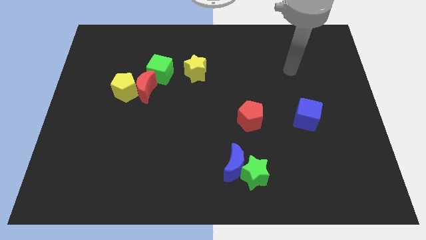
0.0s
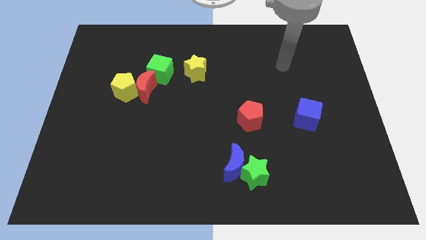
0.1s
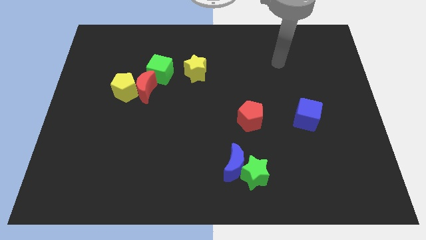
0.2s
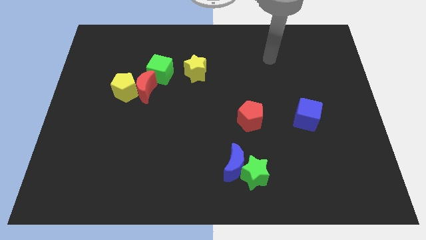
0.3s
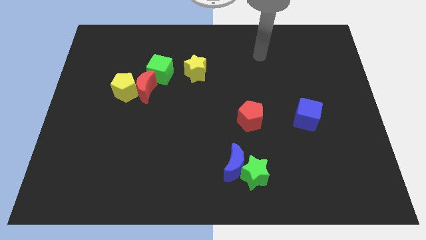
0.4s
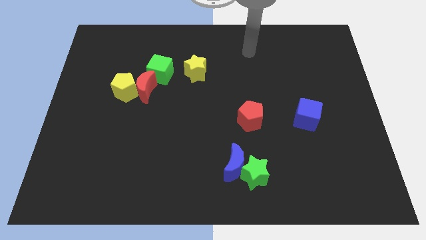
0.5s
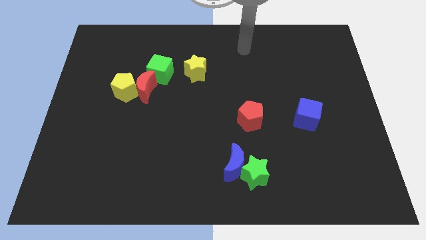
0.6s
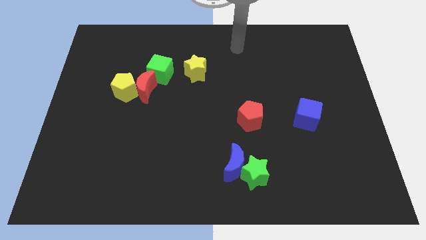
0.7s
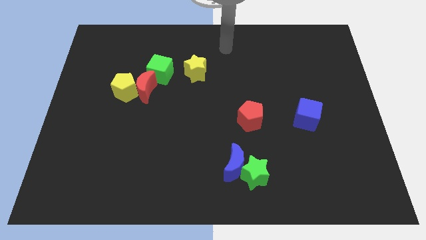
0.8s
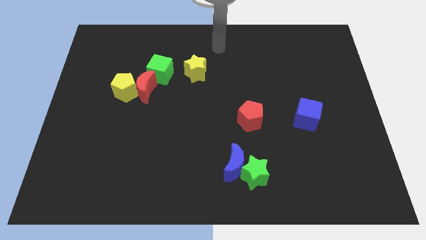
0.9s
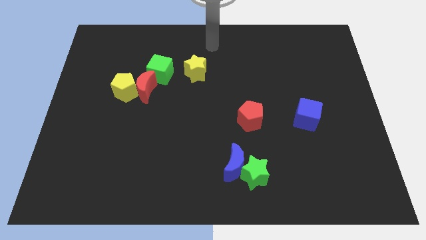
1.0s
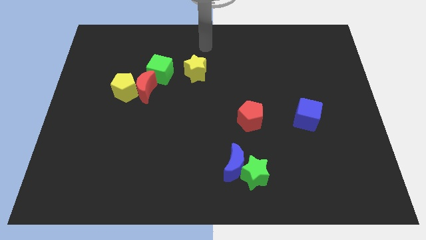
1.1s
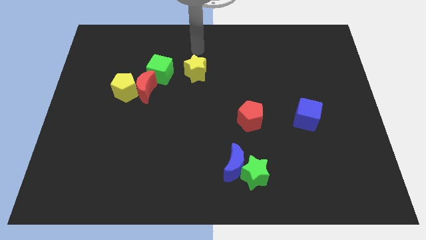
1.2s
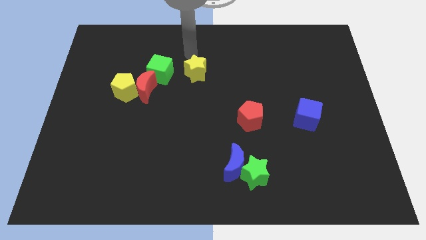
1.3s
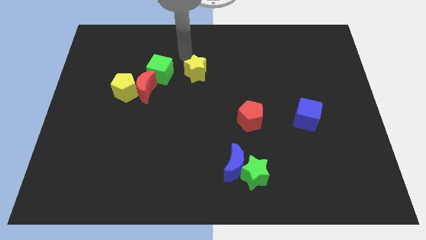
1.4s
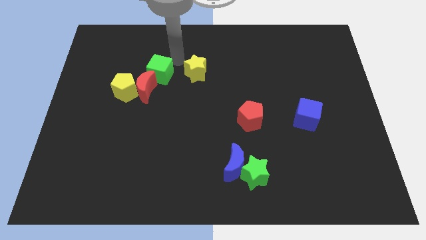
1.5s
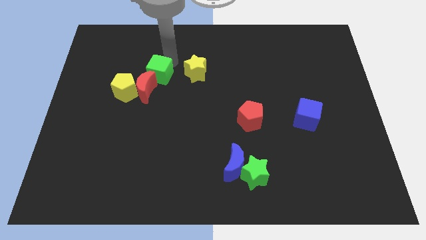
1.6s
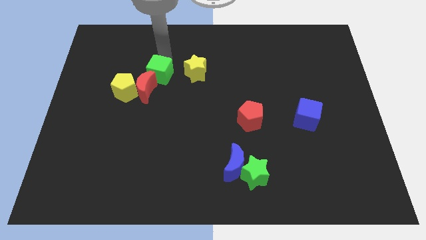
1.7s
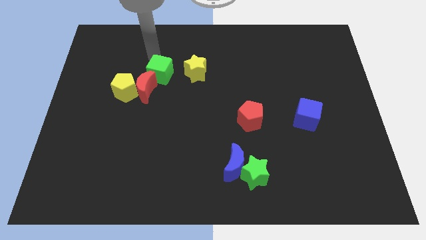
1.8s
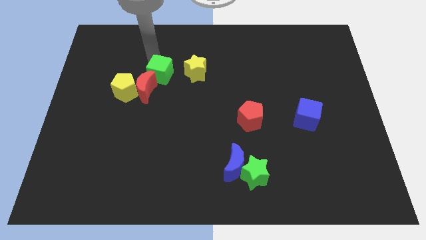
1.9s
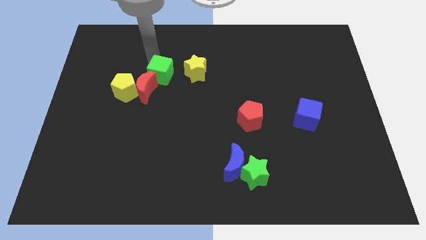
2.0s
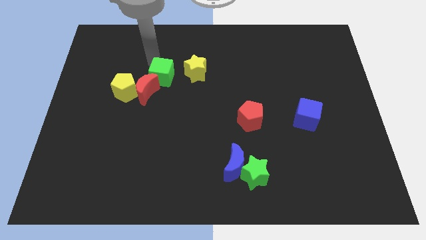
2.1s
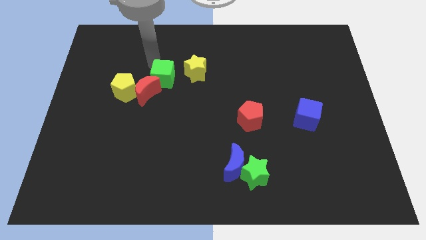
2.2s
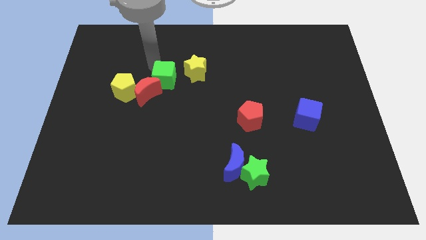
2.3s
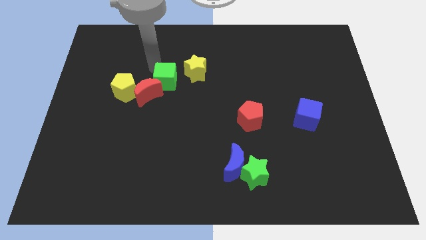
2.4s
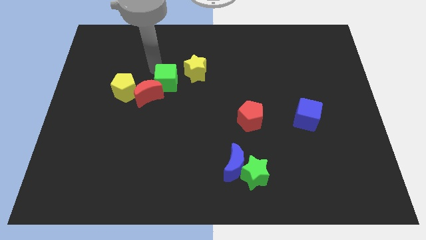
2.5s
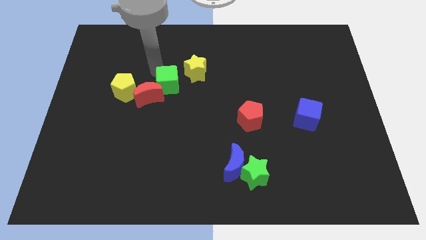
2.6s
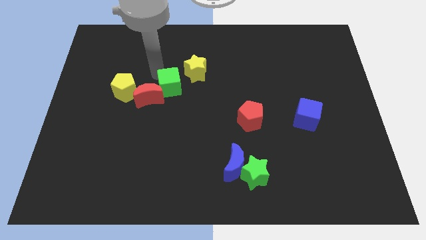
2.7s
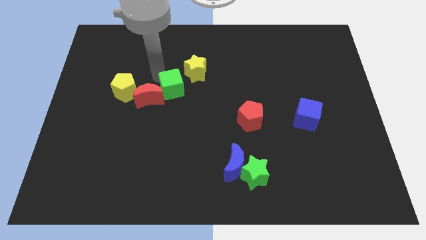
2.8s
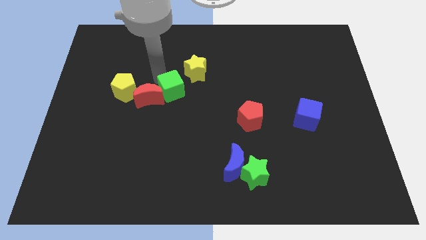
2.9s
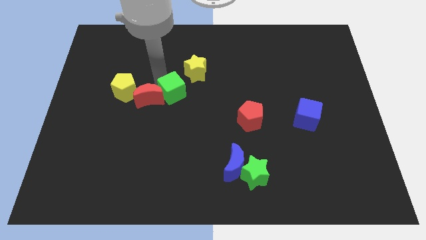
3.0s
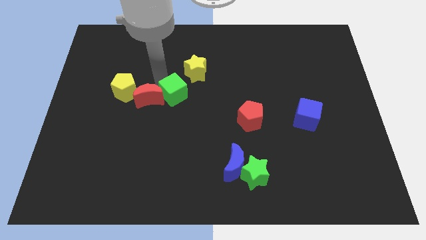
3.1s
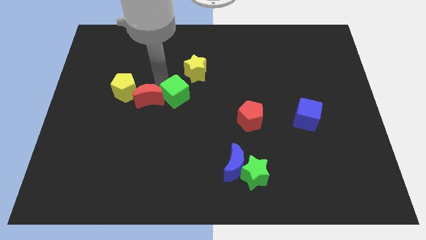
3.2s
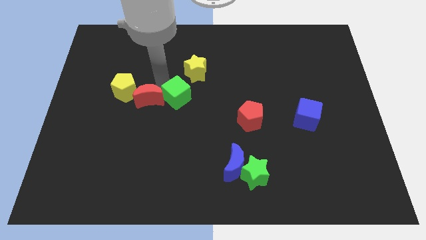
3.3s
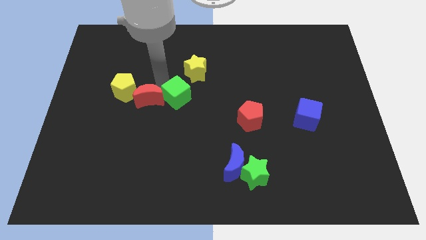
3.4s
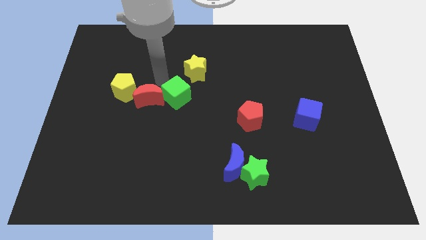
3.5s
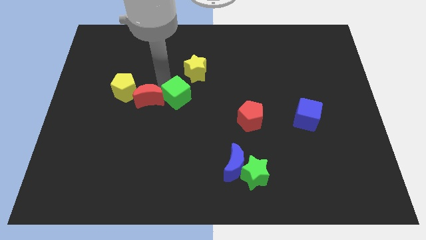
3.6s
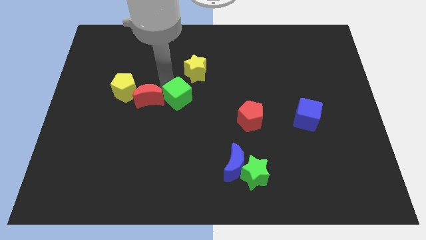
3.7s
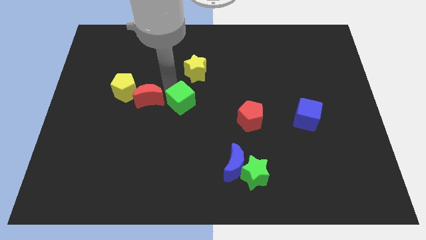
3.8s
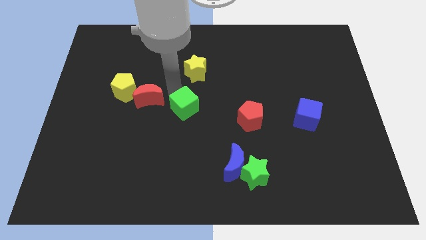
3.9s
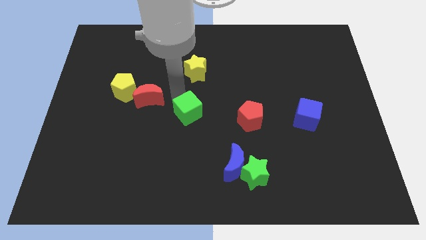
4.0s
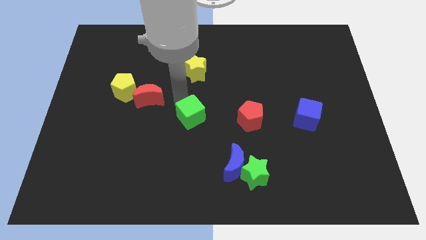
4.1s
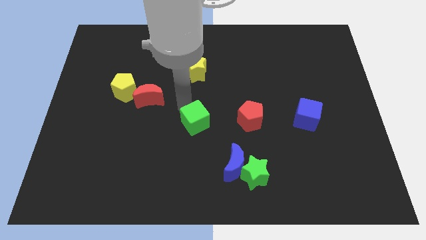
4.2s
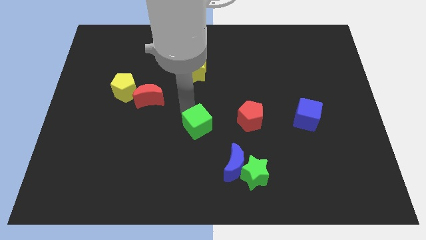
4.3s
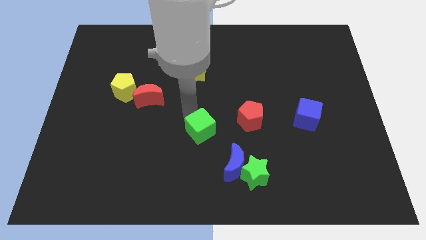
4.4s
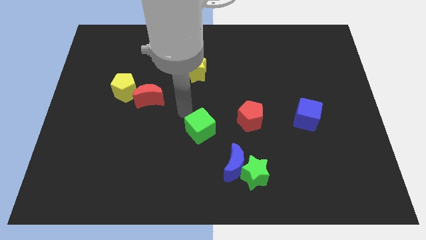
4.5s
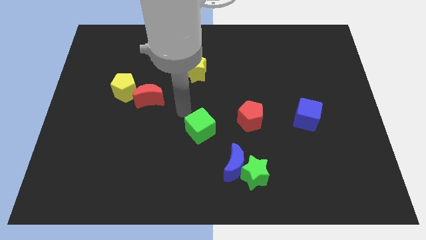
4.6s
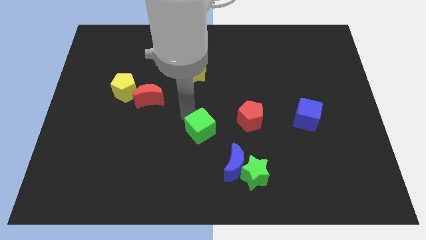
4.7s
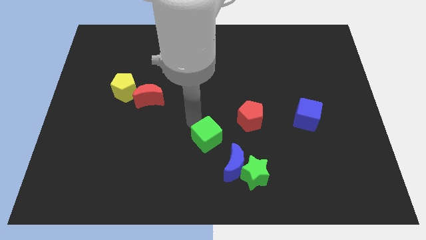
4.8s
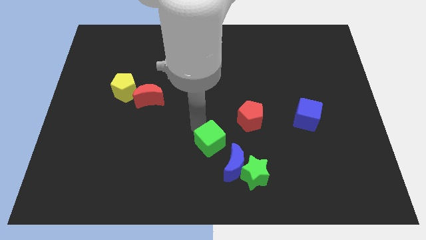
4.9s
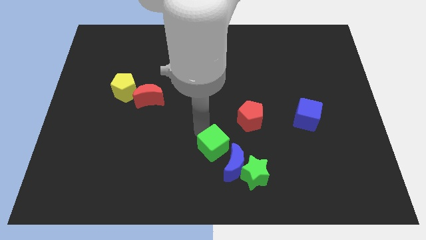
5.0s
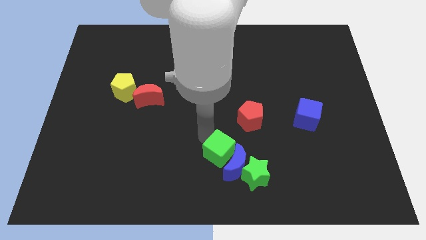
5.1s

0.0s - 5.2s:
push the green cube towards the blue moon

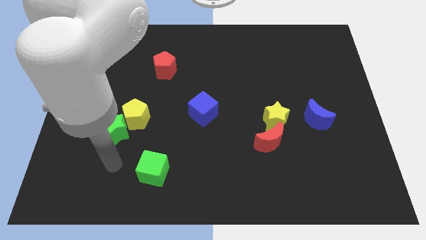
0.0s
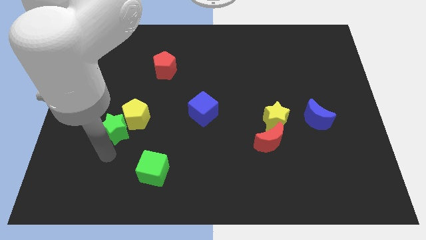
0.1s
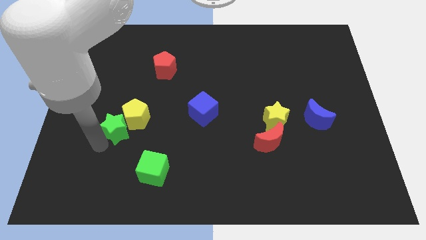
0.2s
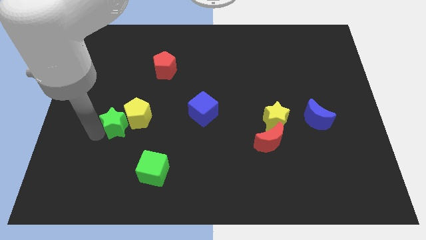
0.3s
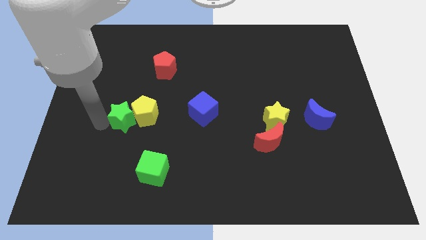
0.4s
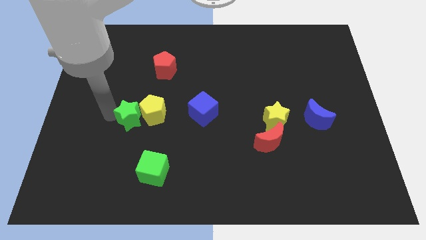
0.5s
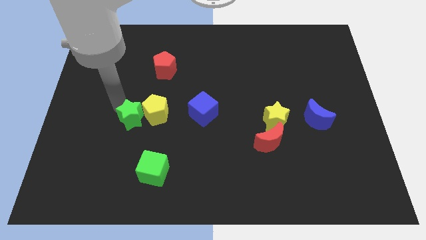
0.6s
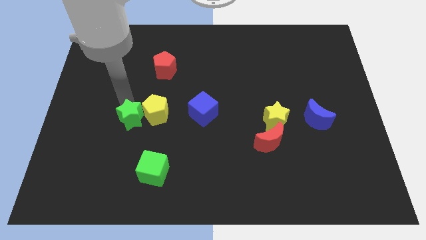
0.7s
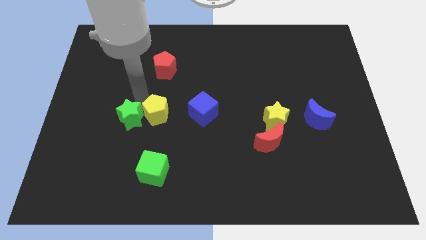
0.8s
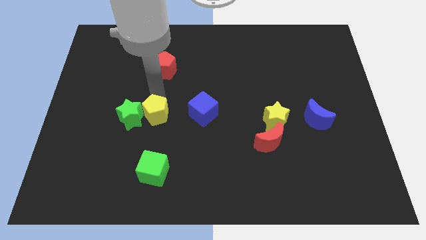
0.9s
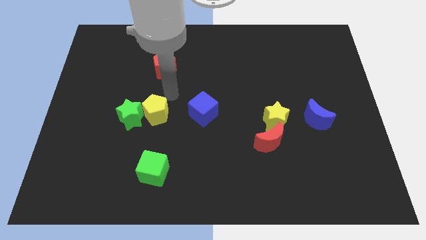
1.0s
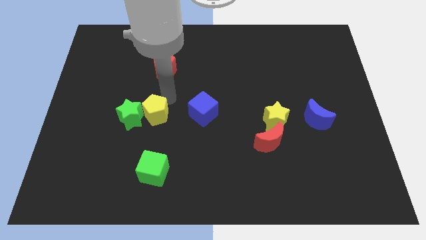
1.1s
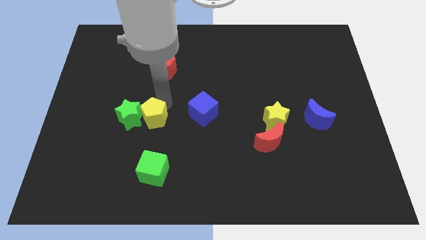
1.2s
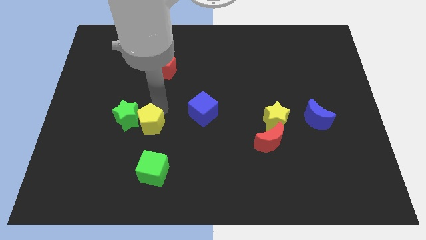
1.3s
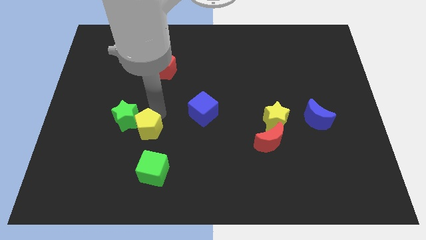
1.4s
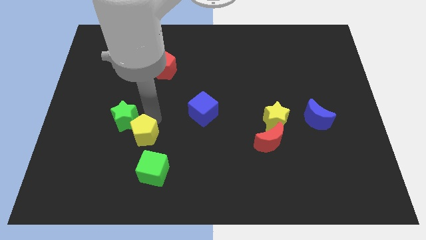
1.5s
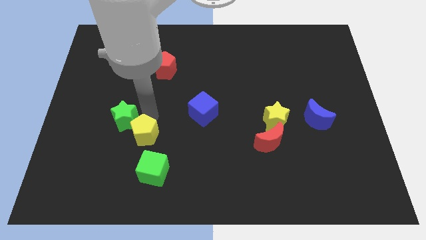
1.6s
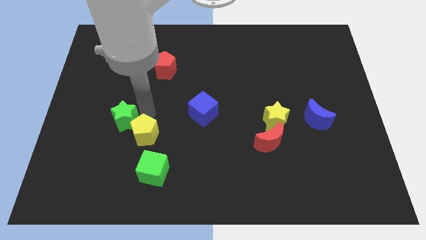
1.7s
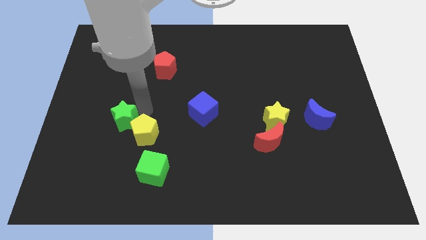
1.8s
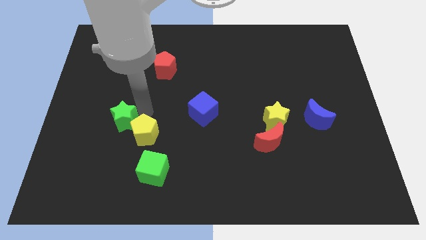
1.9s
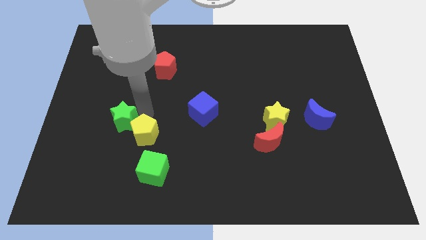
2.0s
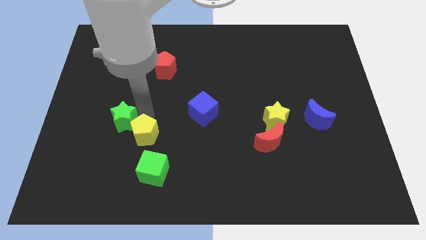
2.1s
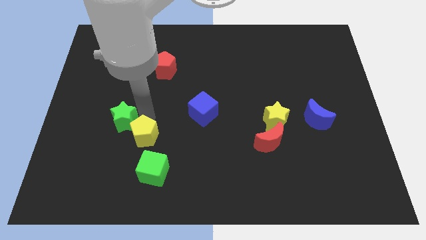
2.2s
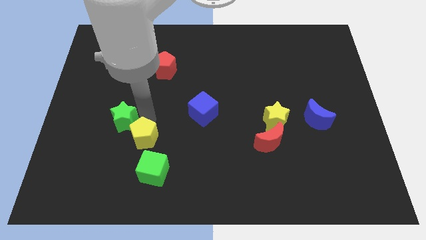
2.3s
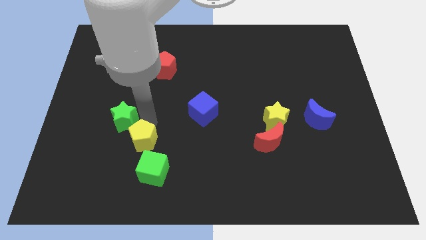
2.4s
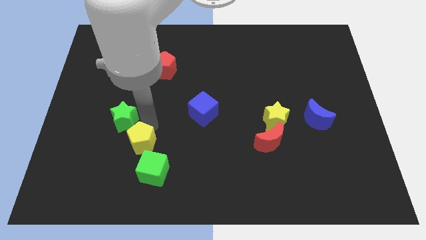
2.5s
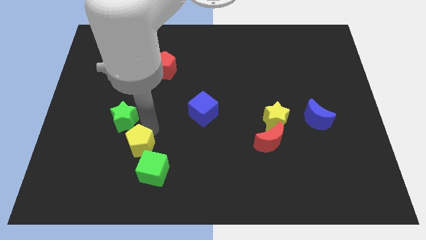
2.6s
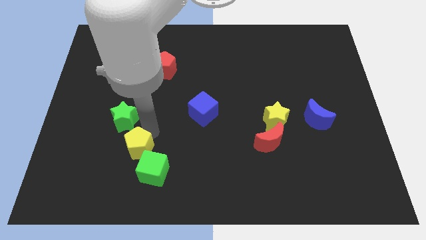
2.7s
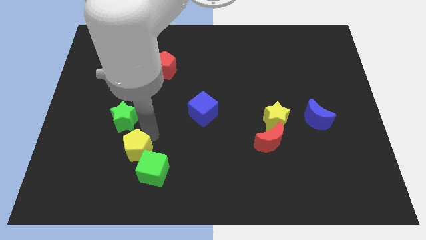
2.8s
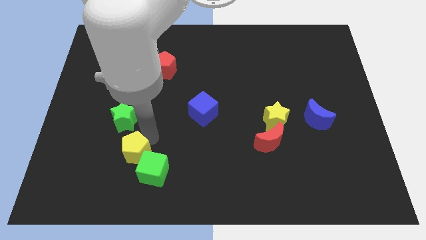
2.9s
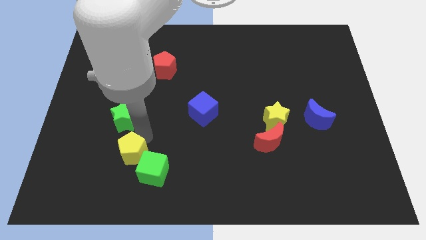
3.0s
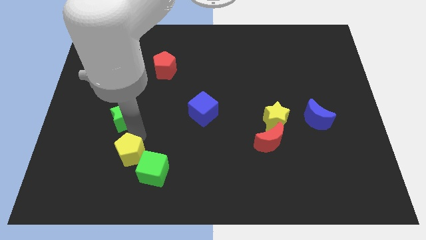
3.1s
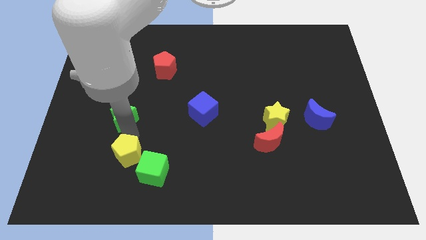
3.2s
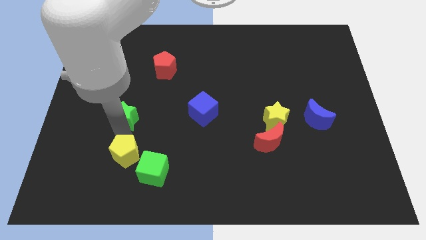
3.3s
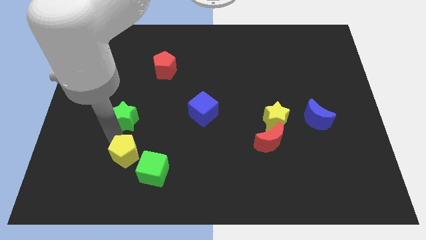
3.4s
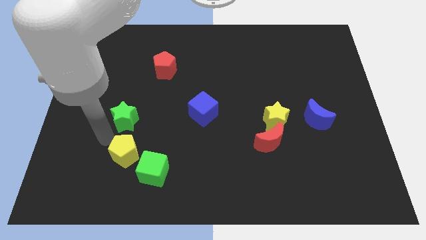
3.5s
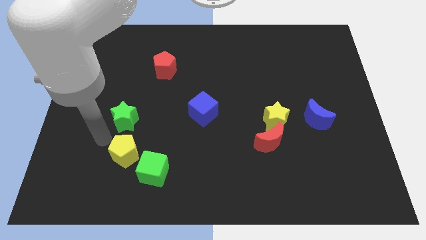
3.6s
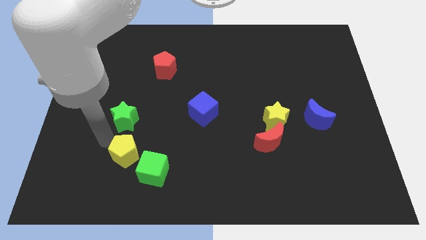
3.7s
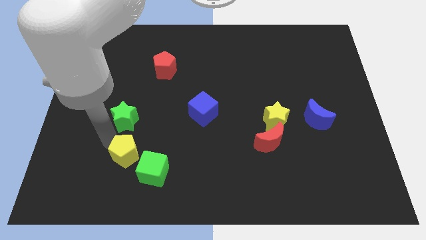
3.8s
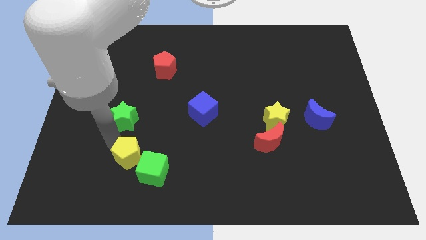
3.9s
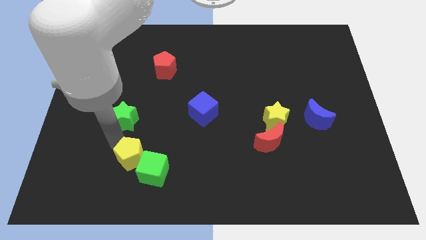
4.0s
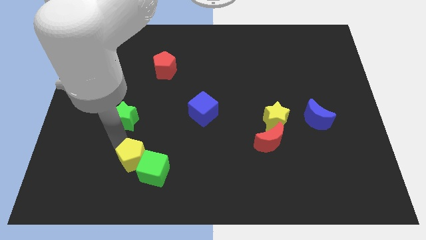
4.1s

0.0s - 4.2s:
slide the yellow pentagon next to the green cube
